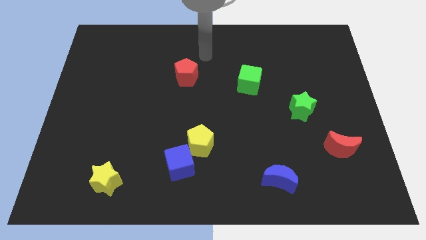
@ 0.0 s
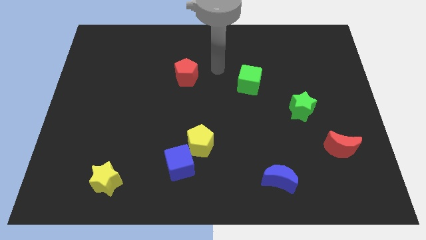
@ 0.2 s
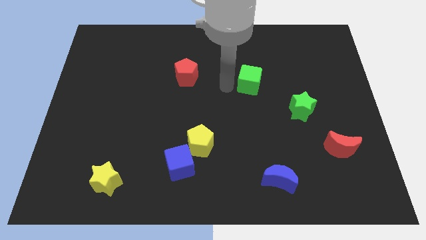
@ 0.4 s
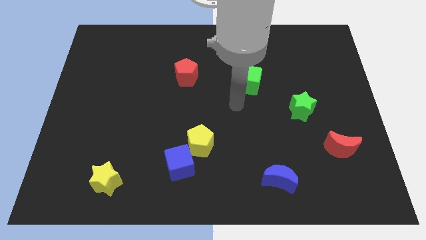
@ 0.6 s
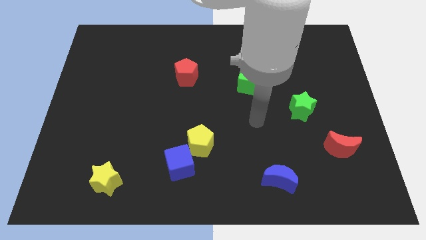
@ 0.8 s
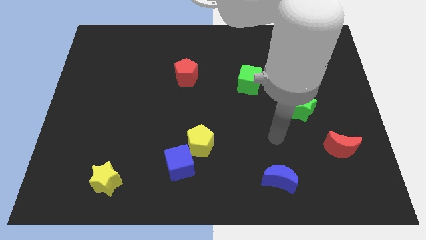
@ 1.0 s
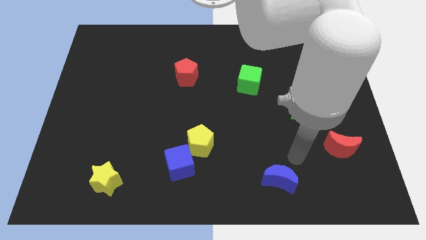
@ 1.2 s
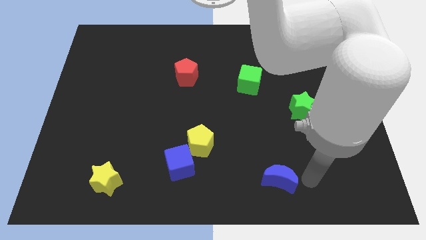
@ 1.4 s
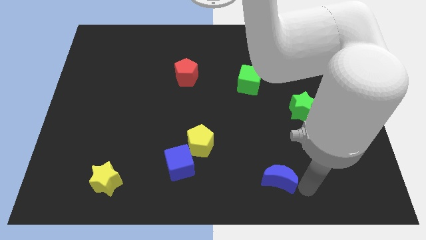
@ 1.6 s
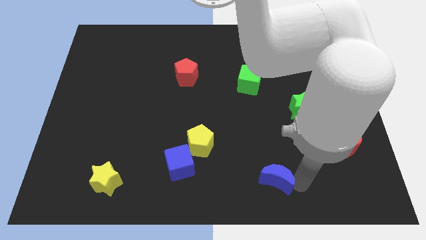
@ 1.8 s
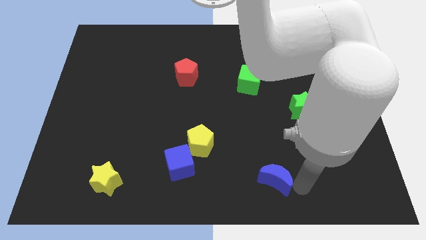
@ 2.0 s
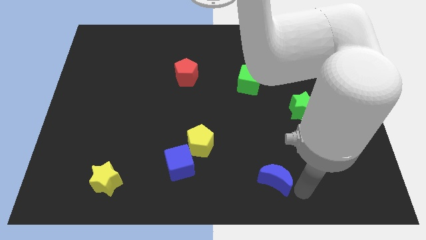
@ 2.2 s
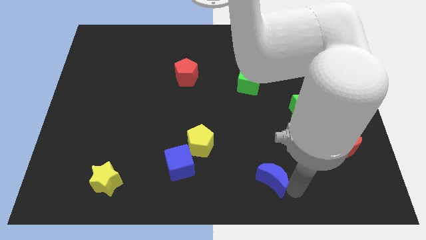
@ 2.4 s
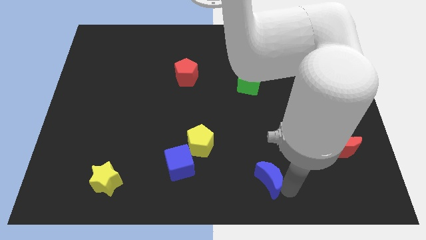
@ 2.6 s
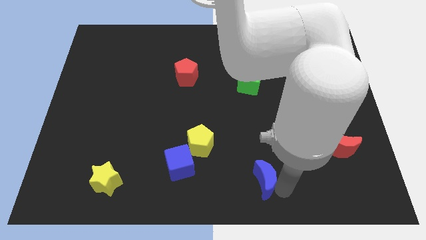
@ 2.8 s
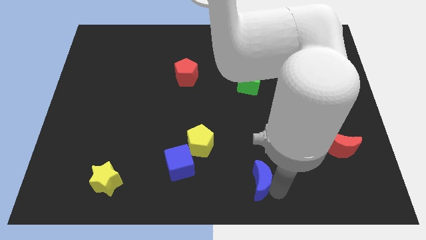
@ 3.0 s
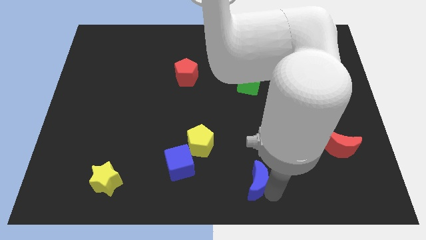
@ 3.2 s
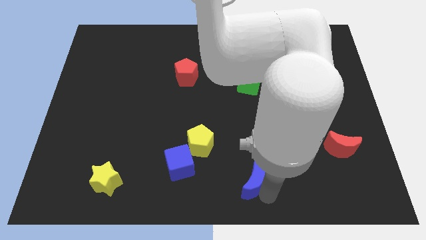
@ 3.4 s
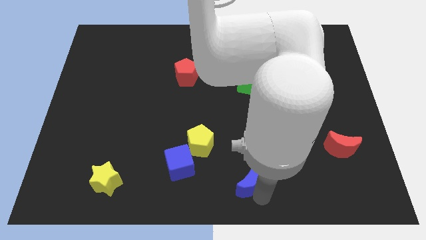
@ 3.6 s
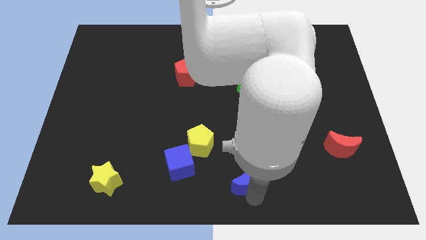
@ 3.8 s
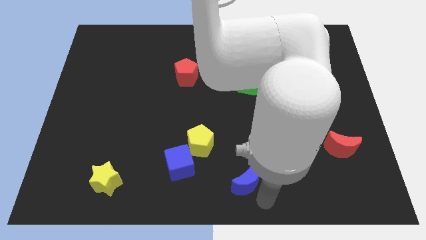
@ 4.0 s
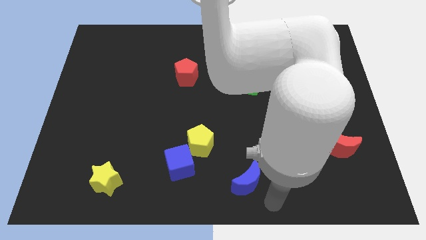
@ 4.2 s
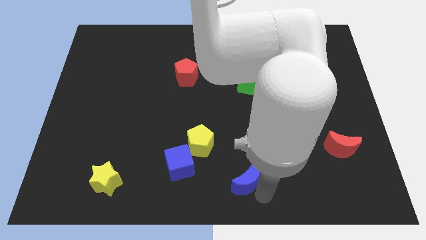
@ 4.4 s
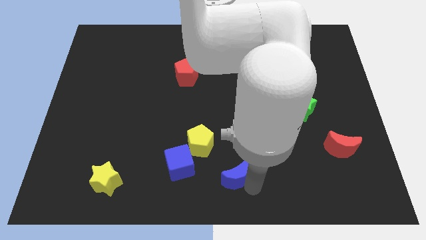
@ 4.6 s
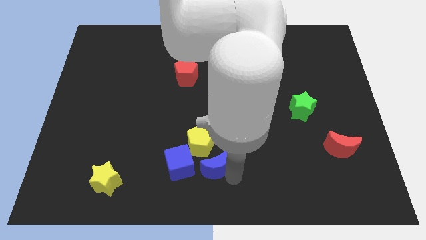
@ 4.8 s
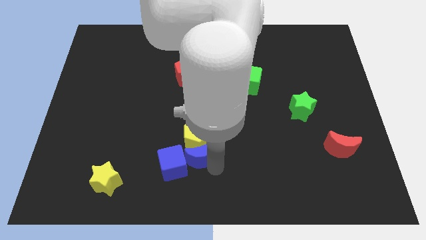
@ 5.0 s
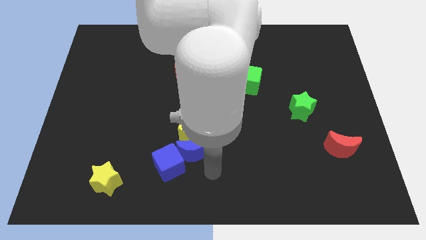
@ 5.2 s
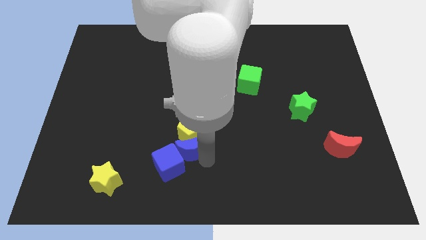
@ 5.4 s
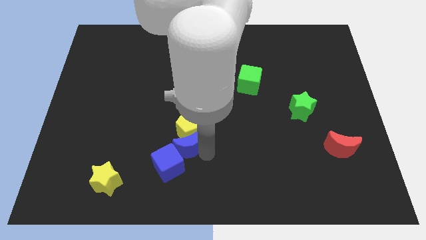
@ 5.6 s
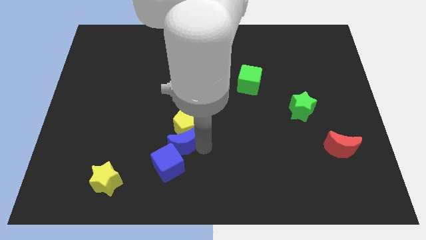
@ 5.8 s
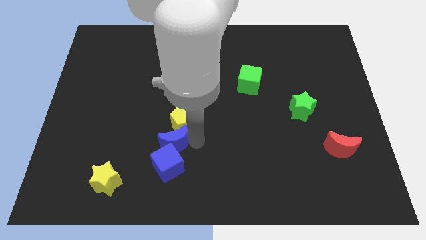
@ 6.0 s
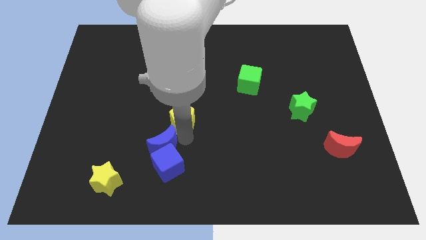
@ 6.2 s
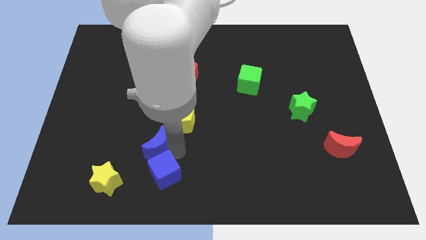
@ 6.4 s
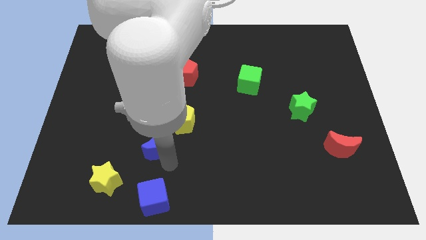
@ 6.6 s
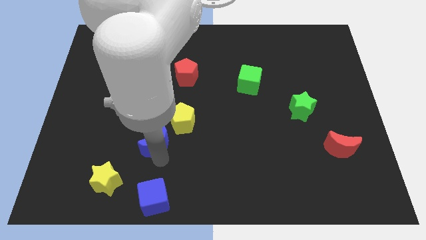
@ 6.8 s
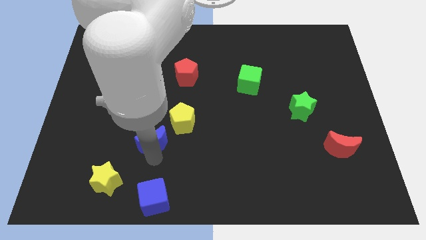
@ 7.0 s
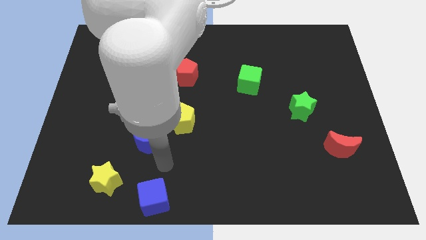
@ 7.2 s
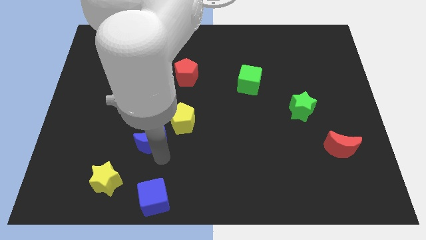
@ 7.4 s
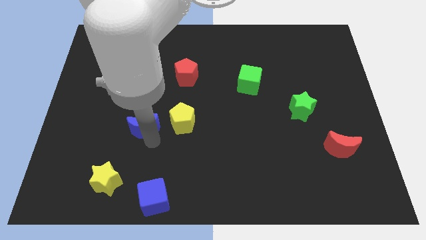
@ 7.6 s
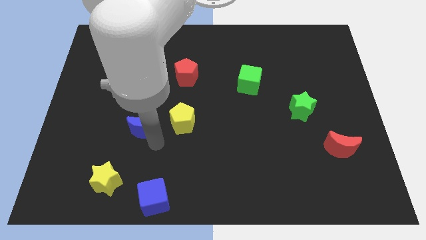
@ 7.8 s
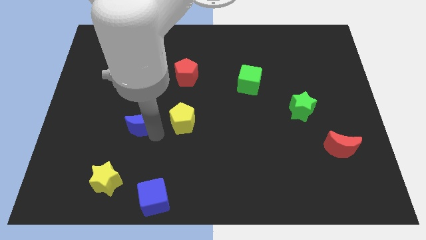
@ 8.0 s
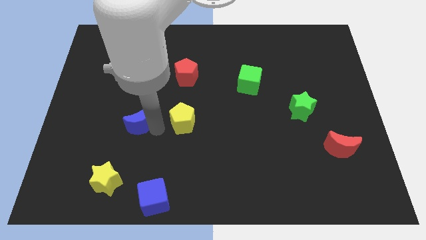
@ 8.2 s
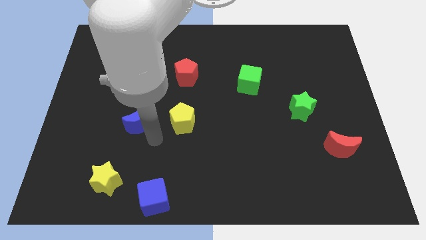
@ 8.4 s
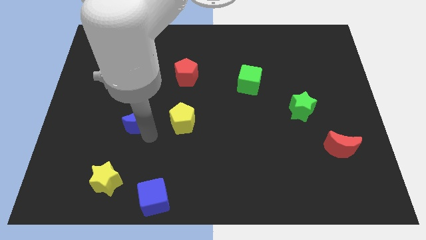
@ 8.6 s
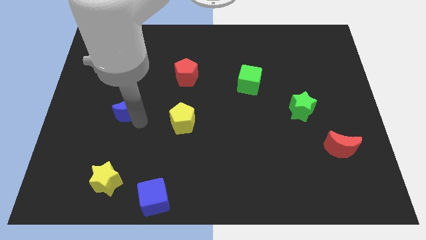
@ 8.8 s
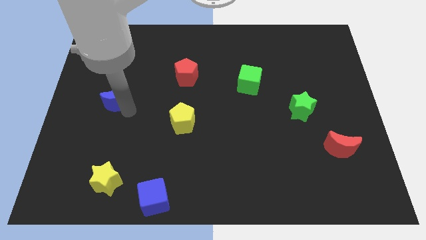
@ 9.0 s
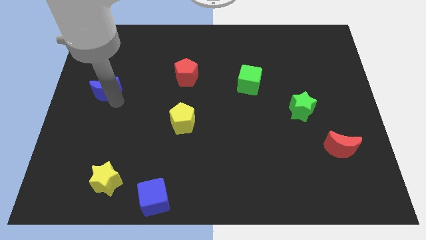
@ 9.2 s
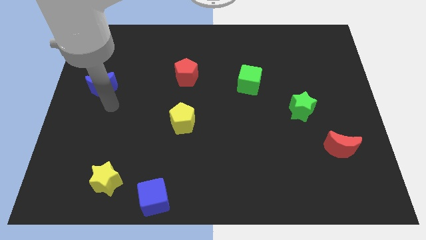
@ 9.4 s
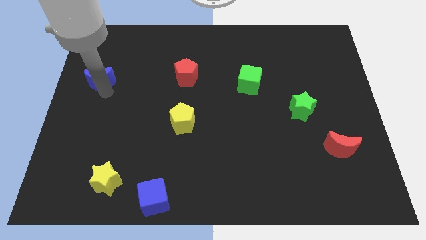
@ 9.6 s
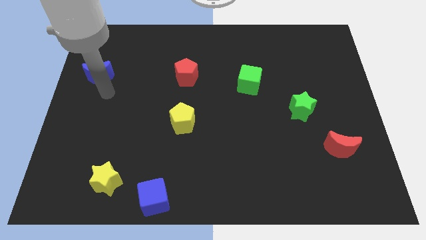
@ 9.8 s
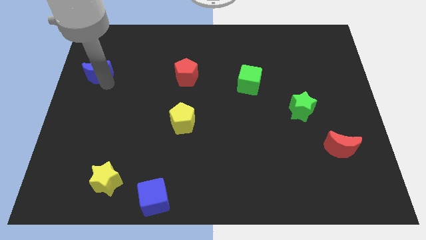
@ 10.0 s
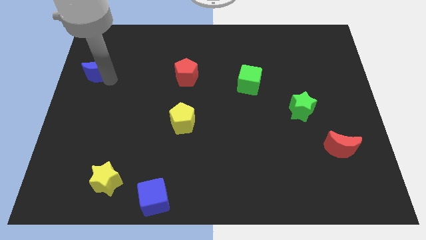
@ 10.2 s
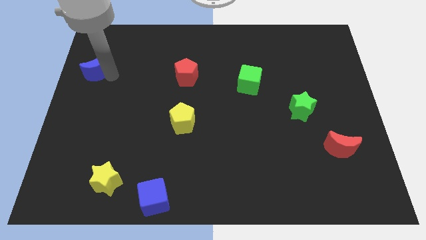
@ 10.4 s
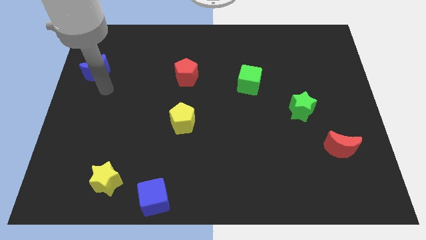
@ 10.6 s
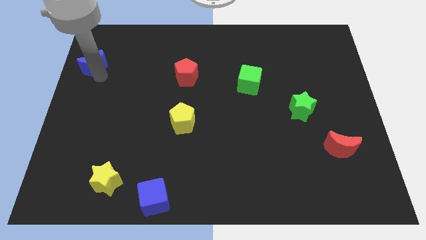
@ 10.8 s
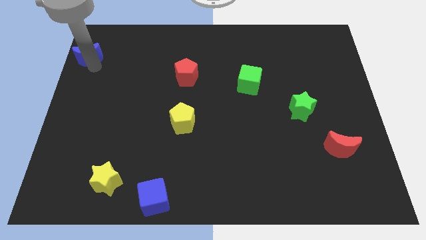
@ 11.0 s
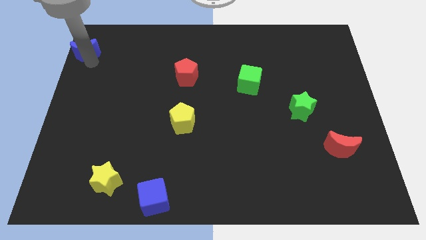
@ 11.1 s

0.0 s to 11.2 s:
put the blue moon to the top left

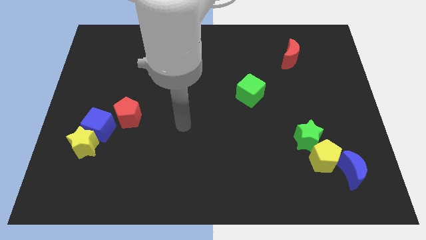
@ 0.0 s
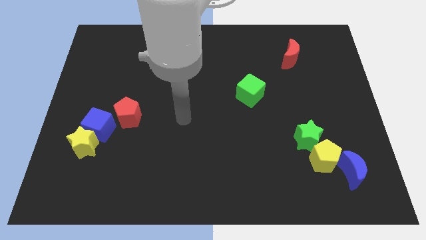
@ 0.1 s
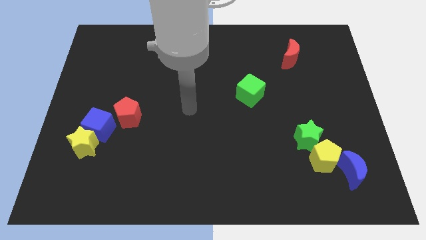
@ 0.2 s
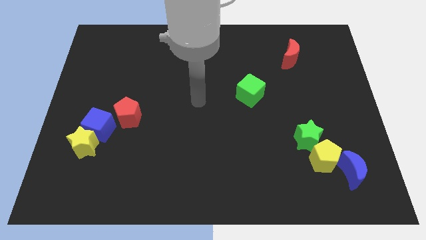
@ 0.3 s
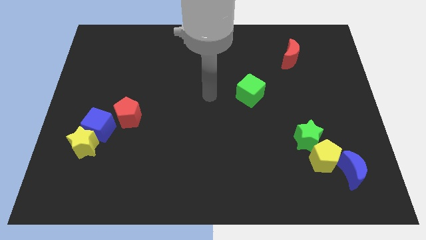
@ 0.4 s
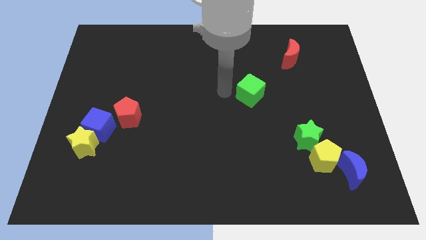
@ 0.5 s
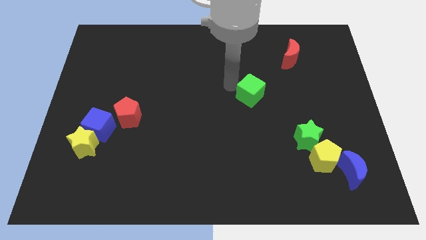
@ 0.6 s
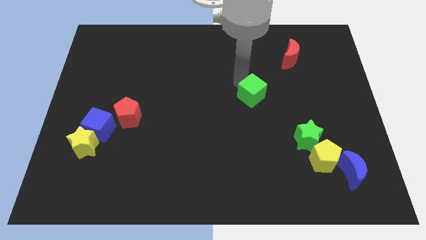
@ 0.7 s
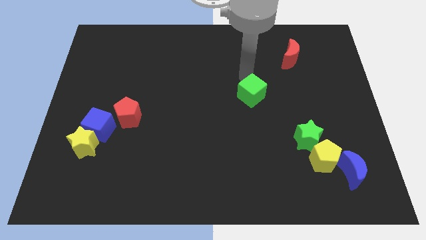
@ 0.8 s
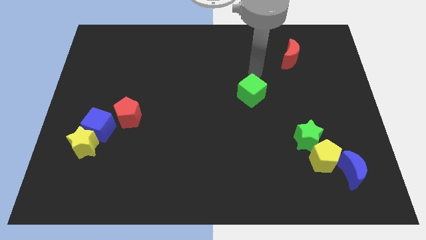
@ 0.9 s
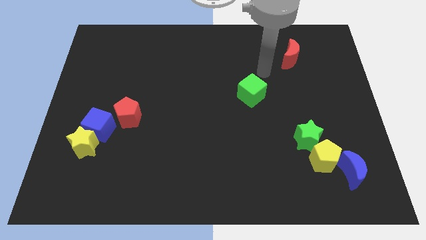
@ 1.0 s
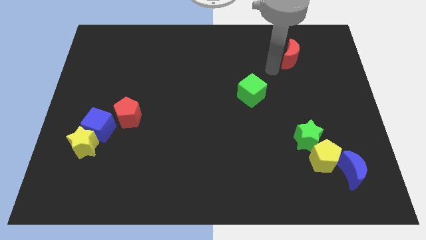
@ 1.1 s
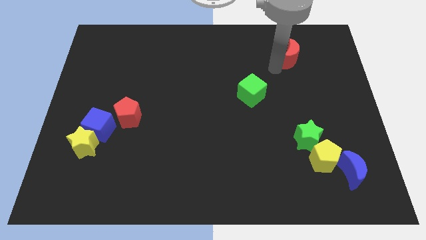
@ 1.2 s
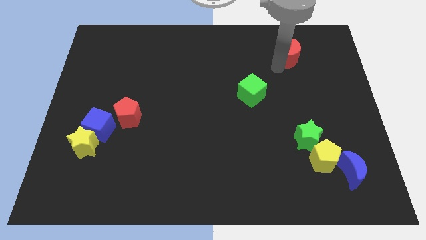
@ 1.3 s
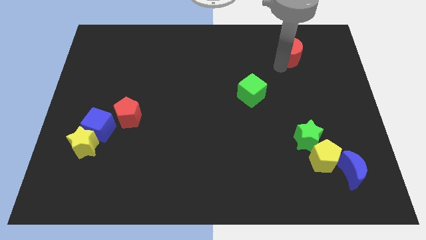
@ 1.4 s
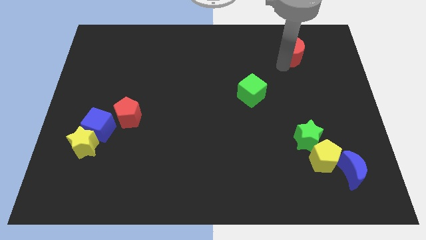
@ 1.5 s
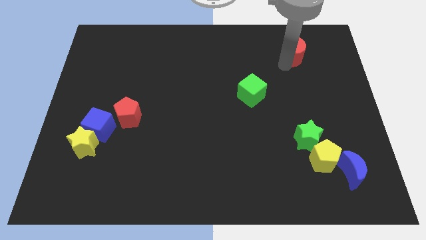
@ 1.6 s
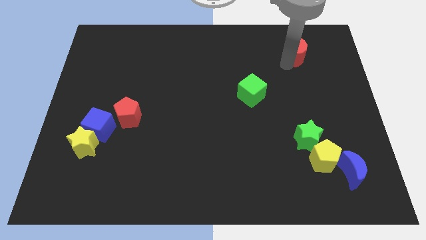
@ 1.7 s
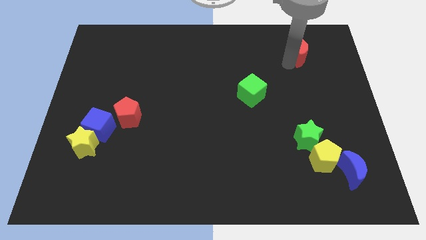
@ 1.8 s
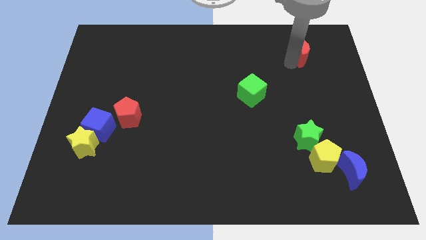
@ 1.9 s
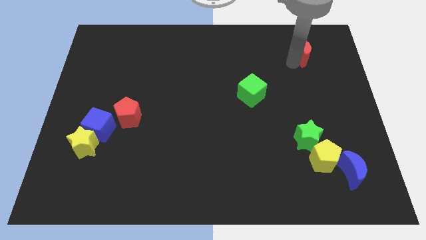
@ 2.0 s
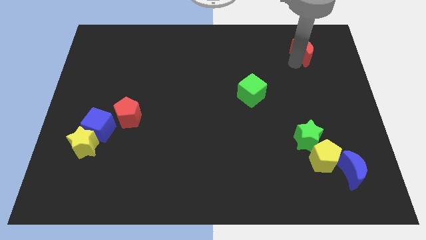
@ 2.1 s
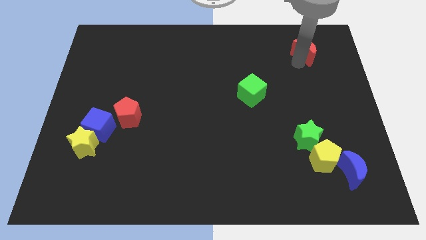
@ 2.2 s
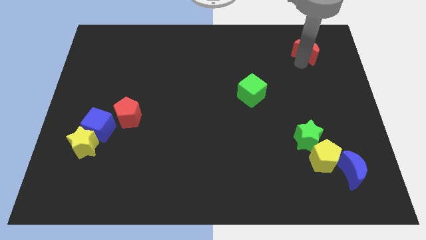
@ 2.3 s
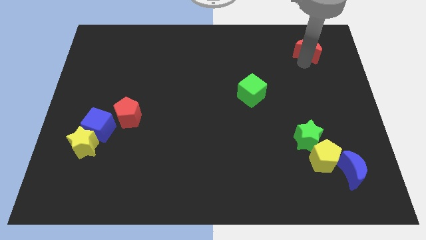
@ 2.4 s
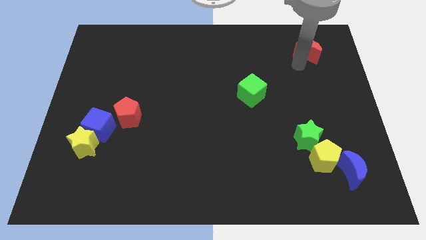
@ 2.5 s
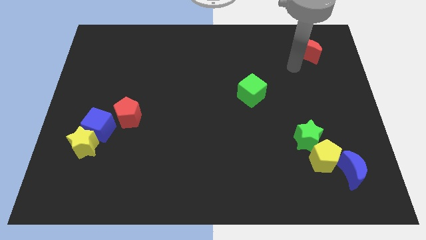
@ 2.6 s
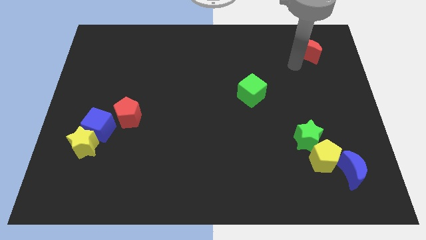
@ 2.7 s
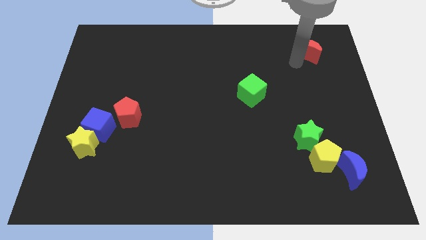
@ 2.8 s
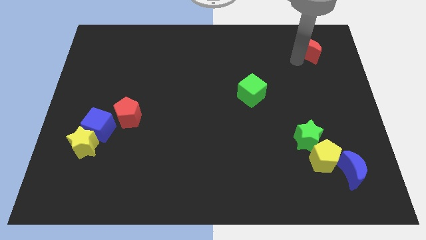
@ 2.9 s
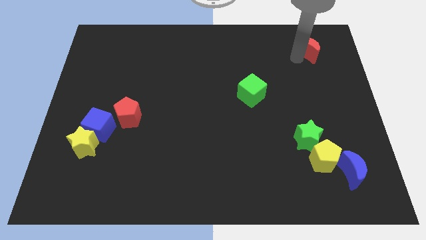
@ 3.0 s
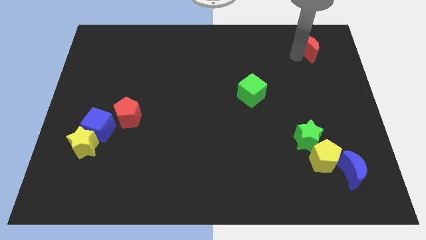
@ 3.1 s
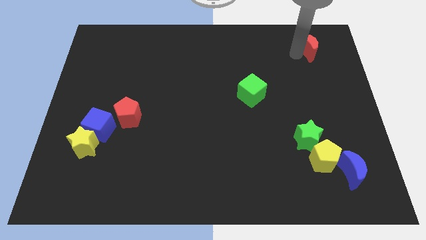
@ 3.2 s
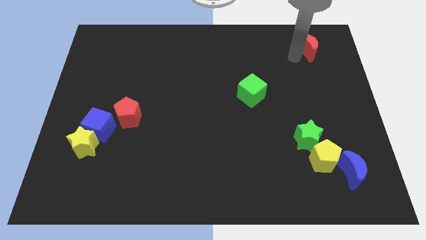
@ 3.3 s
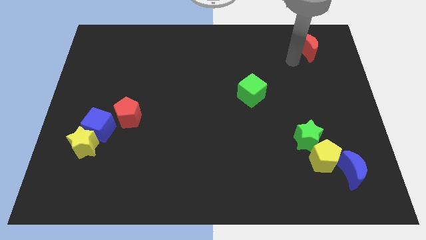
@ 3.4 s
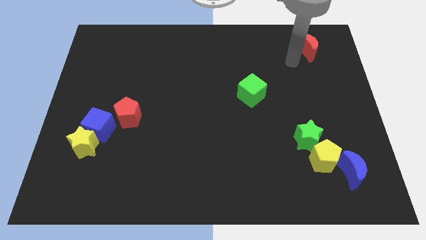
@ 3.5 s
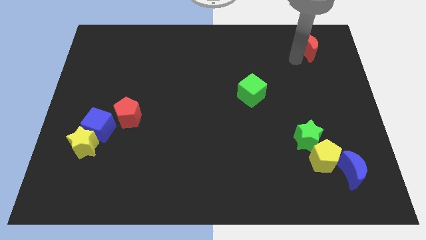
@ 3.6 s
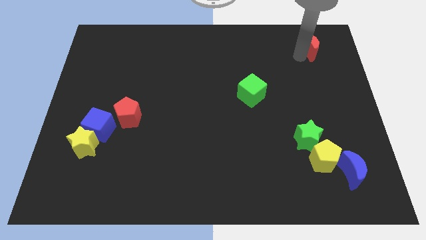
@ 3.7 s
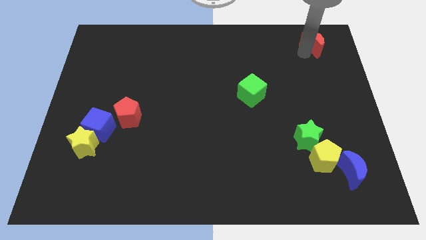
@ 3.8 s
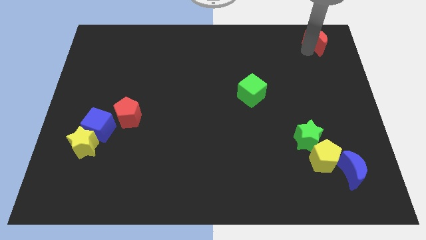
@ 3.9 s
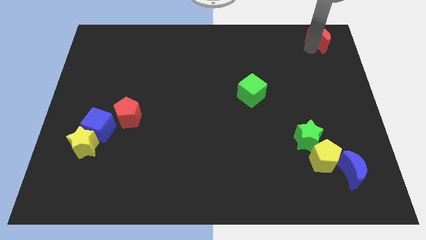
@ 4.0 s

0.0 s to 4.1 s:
push the red moon to the top right of the board
